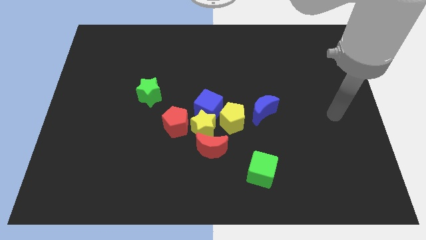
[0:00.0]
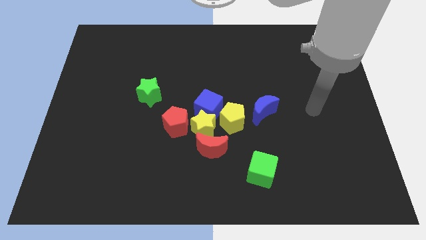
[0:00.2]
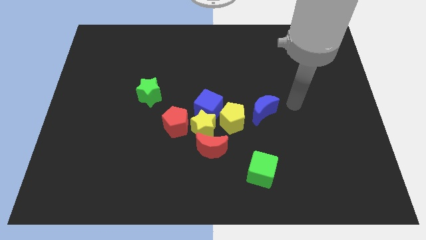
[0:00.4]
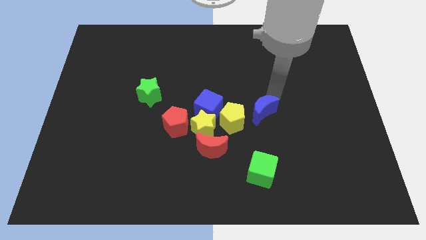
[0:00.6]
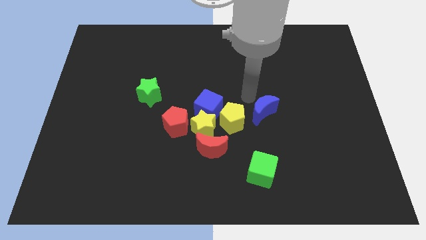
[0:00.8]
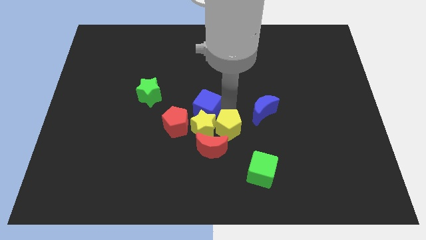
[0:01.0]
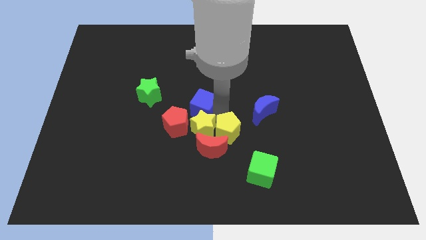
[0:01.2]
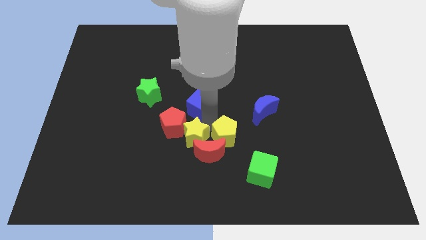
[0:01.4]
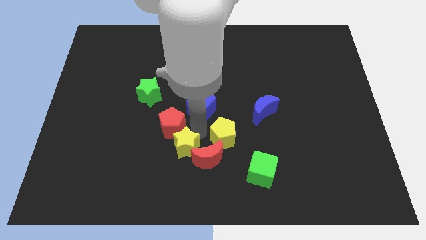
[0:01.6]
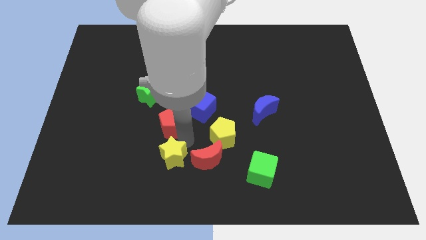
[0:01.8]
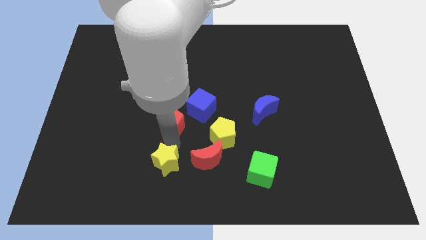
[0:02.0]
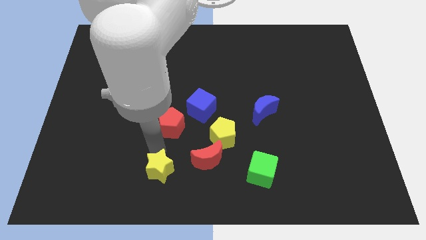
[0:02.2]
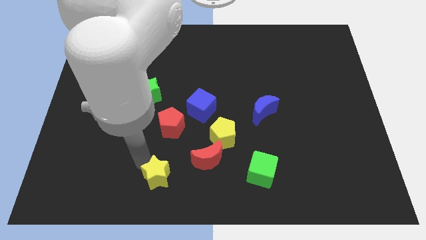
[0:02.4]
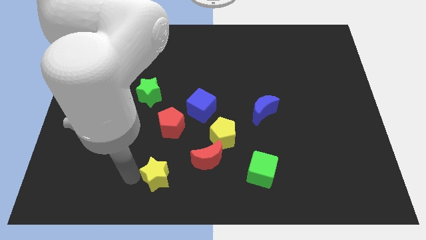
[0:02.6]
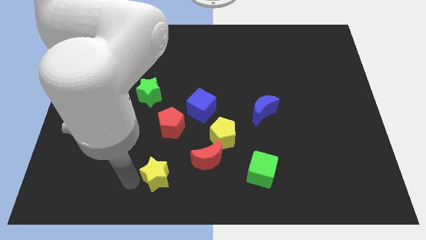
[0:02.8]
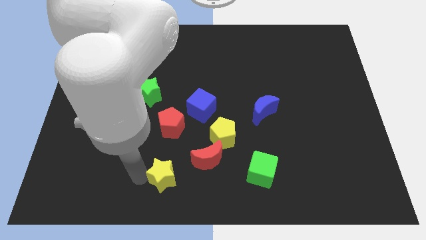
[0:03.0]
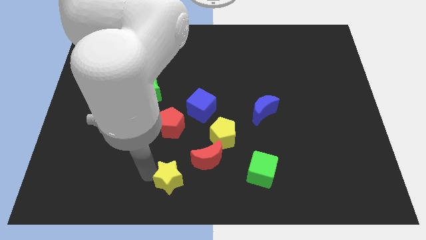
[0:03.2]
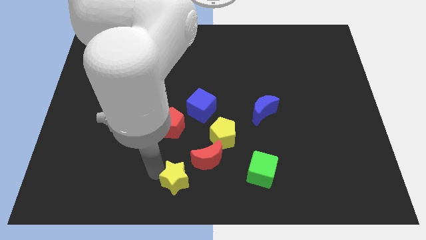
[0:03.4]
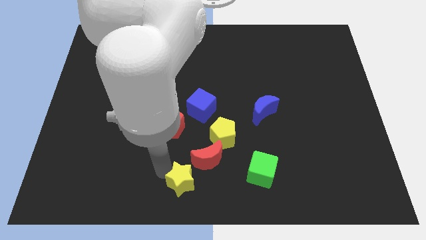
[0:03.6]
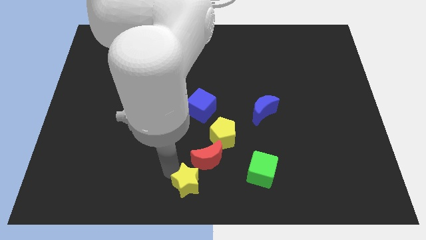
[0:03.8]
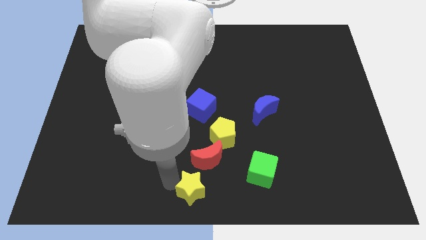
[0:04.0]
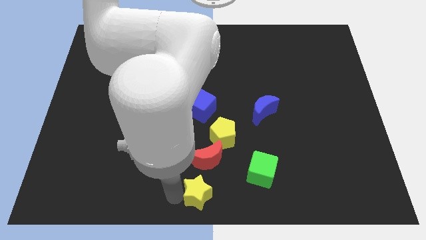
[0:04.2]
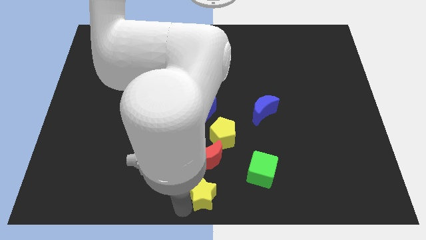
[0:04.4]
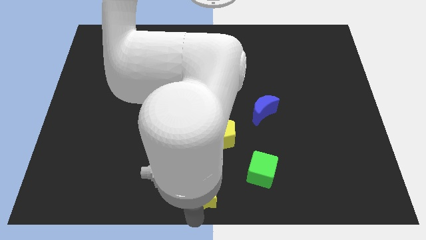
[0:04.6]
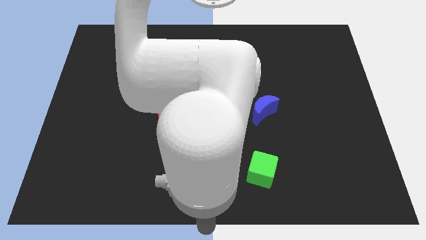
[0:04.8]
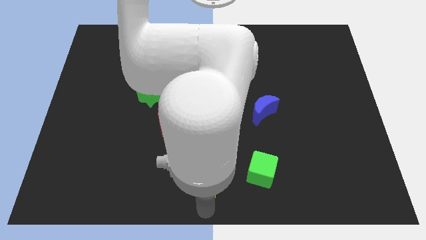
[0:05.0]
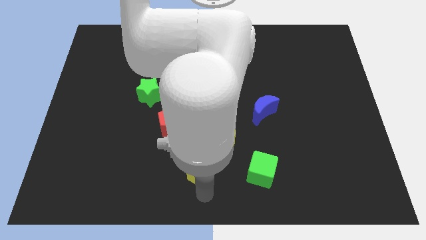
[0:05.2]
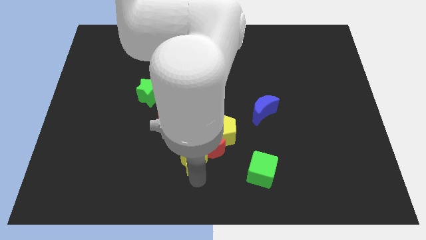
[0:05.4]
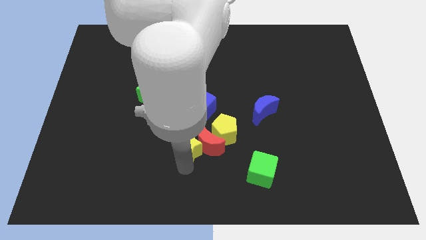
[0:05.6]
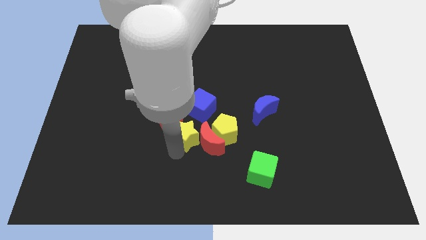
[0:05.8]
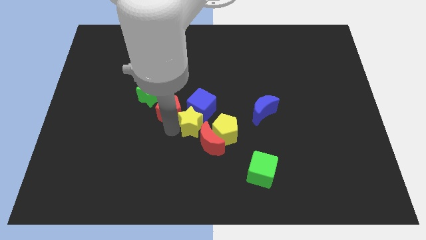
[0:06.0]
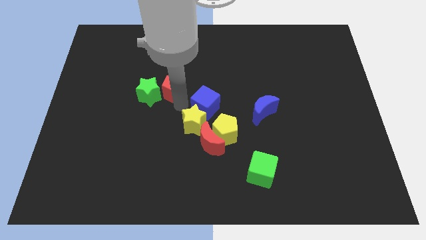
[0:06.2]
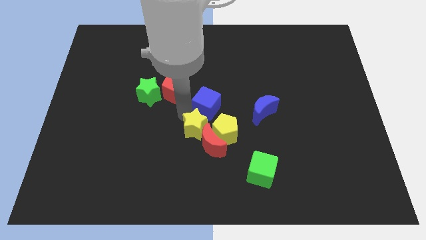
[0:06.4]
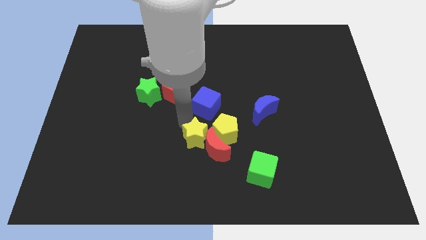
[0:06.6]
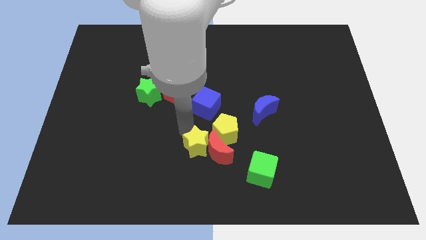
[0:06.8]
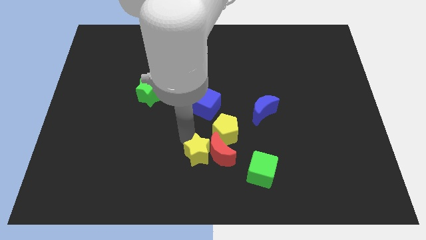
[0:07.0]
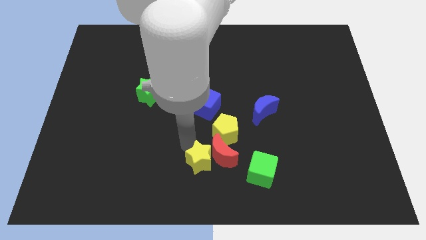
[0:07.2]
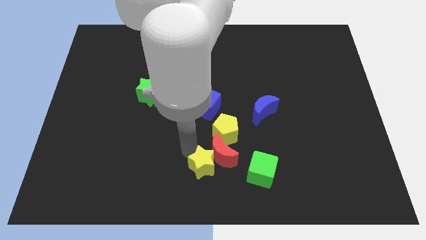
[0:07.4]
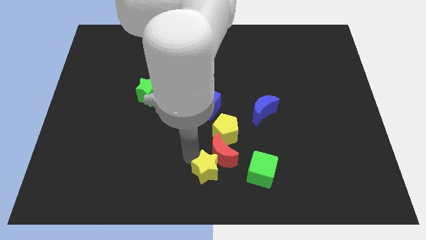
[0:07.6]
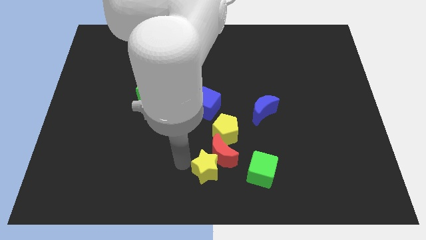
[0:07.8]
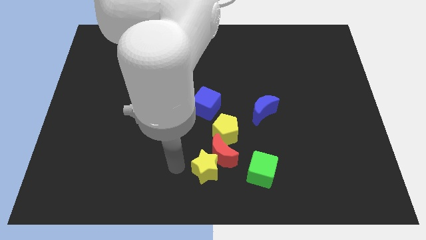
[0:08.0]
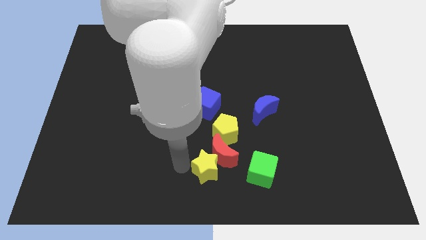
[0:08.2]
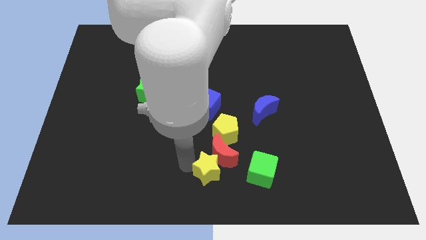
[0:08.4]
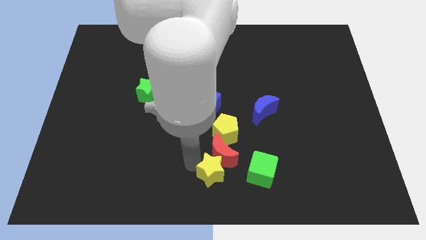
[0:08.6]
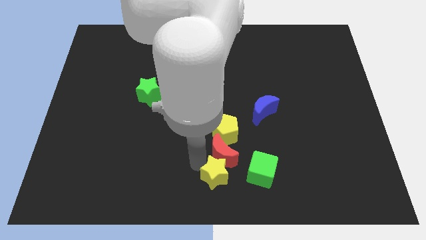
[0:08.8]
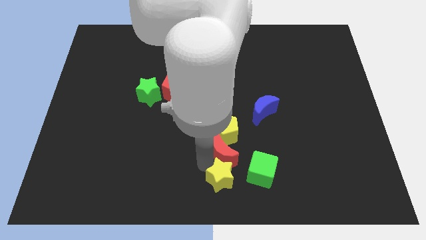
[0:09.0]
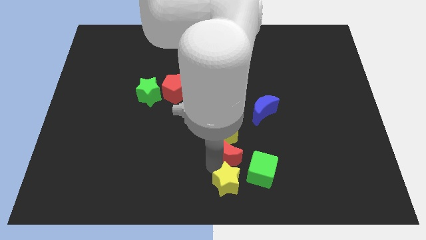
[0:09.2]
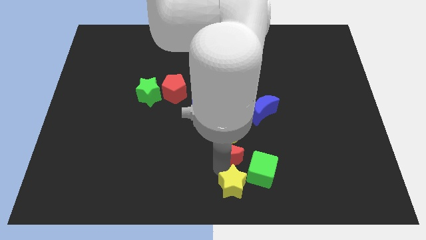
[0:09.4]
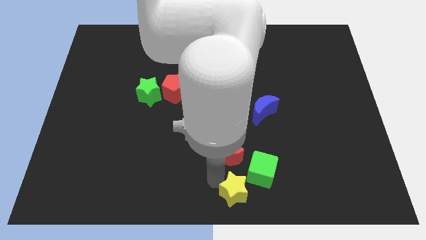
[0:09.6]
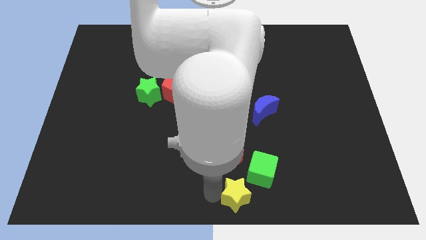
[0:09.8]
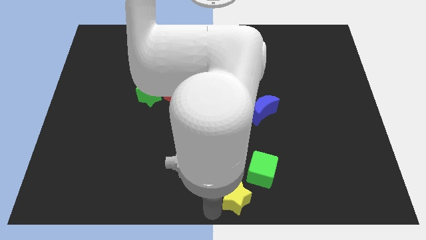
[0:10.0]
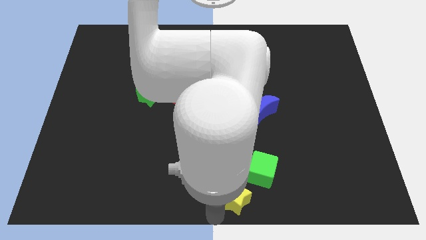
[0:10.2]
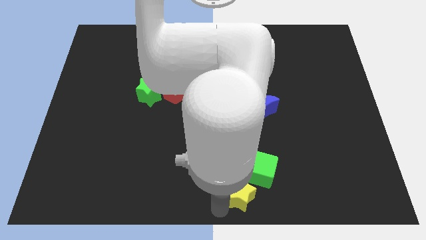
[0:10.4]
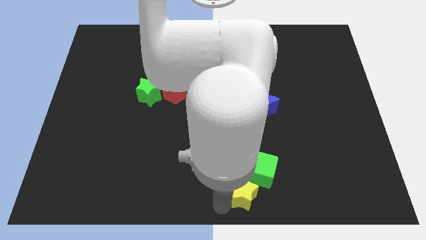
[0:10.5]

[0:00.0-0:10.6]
slide the yellow star close to the green cube

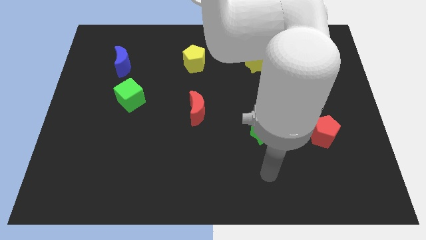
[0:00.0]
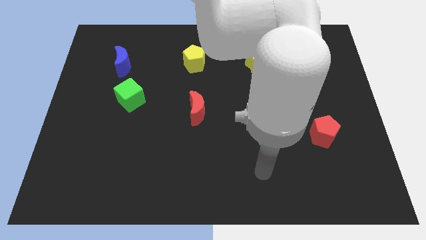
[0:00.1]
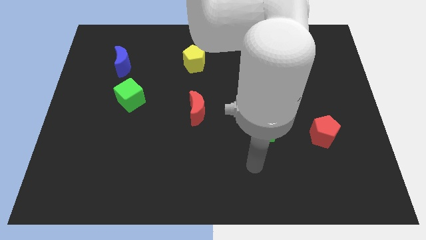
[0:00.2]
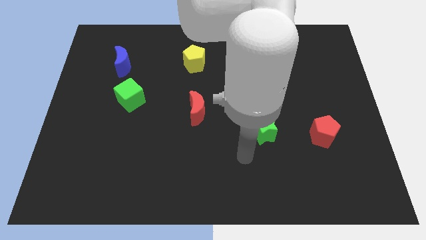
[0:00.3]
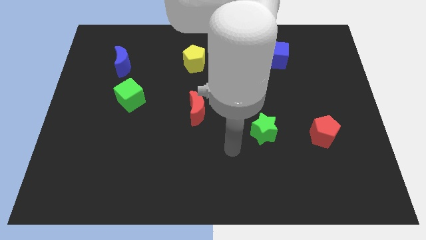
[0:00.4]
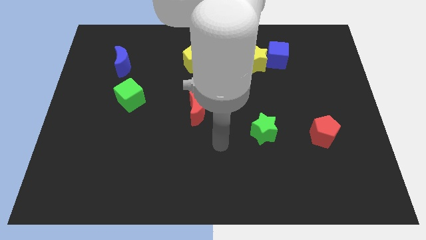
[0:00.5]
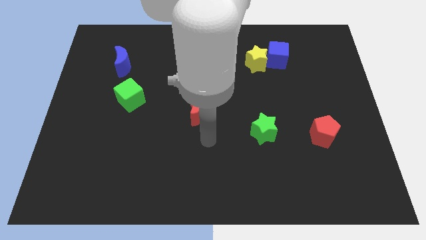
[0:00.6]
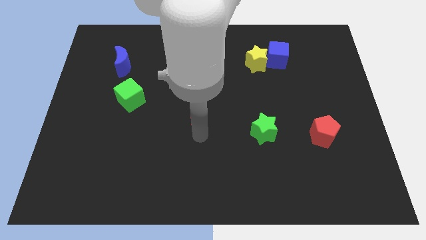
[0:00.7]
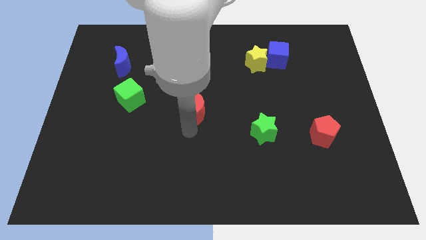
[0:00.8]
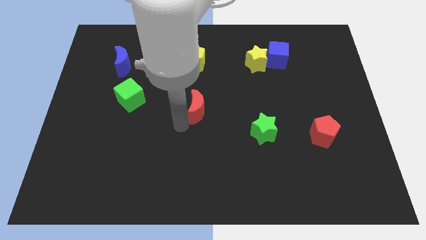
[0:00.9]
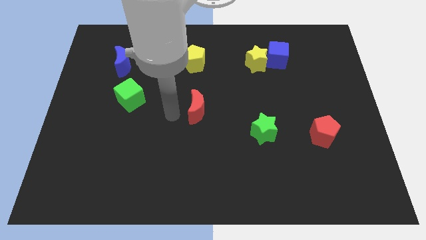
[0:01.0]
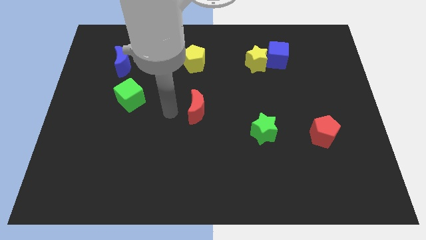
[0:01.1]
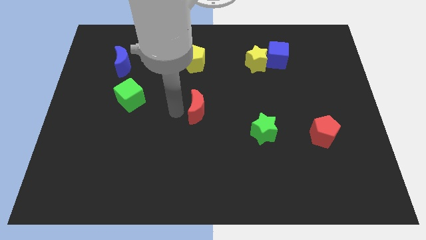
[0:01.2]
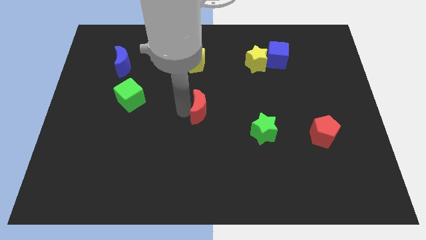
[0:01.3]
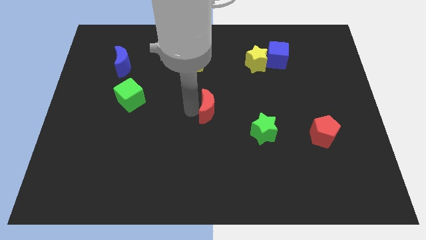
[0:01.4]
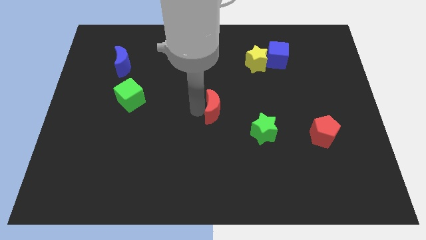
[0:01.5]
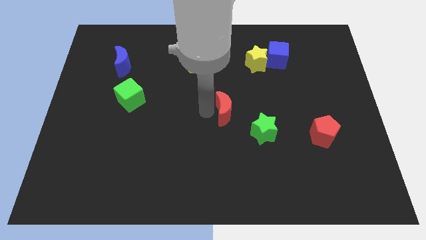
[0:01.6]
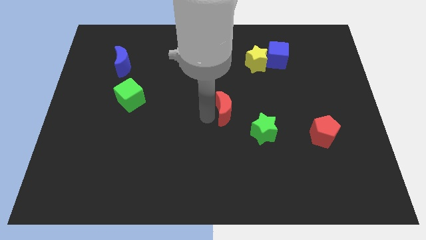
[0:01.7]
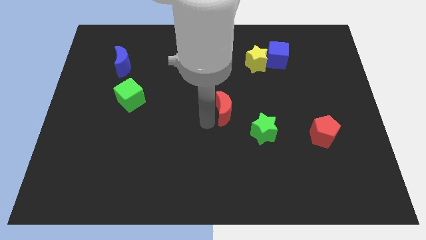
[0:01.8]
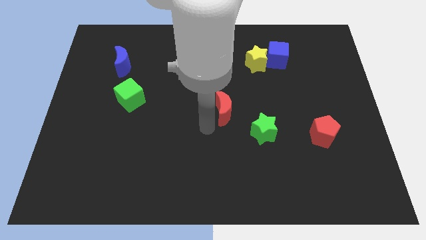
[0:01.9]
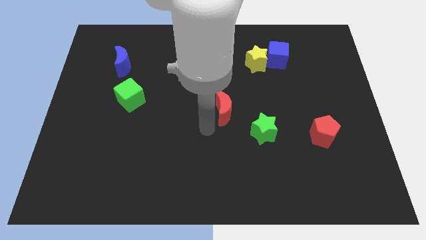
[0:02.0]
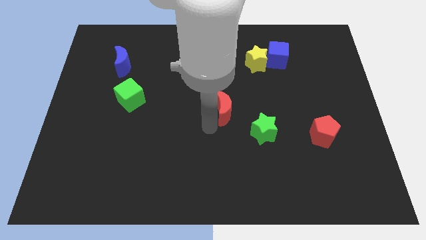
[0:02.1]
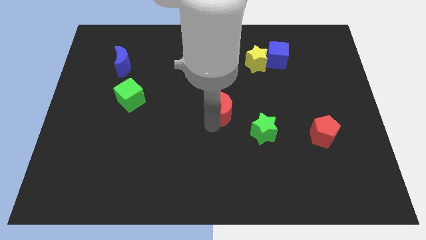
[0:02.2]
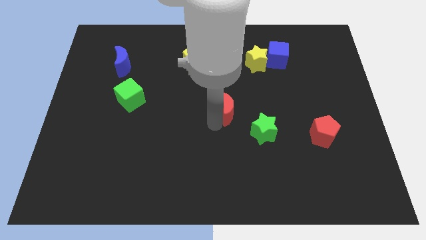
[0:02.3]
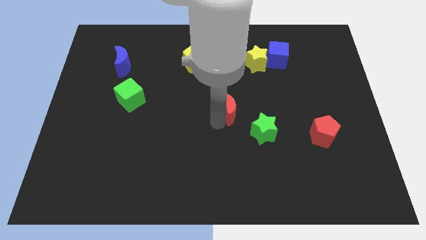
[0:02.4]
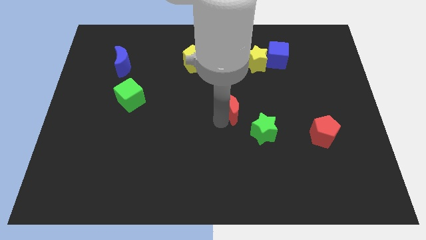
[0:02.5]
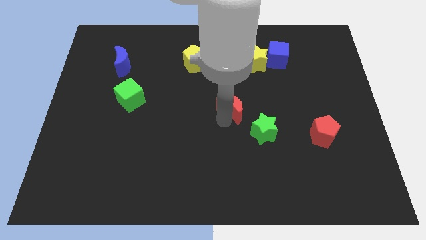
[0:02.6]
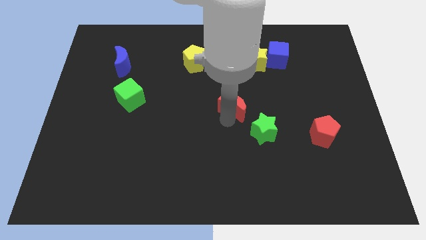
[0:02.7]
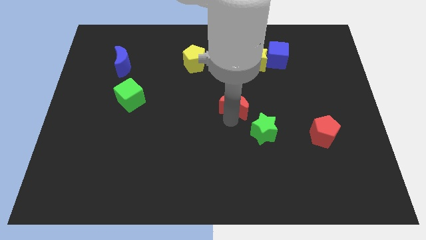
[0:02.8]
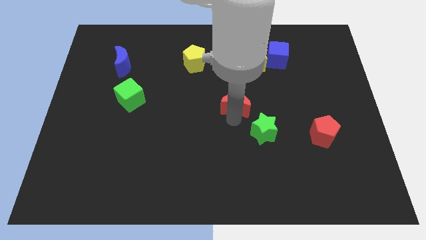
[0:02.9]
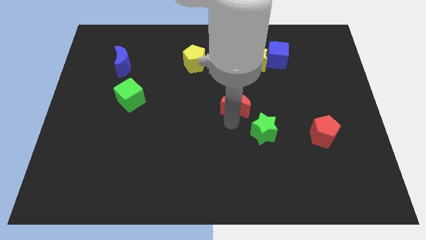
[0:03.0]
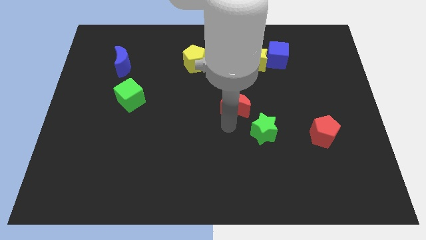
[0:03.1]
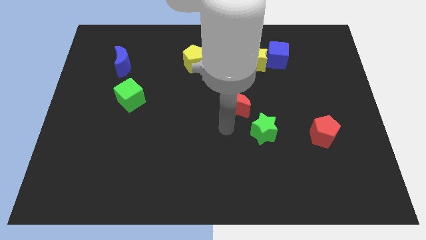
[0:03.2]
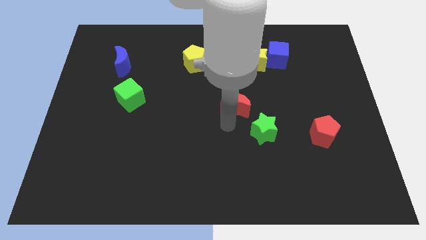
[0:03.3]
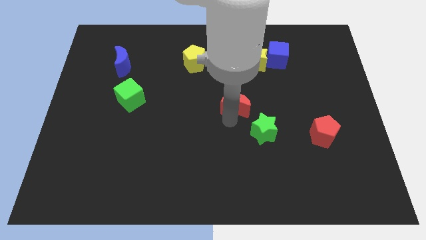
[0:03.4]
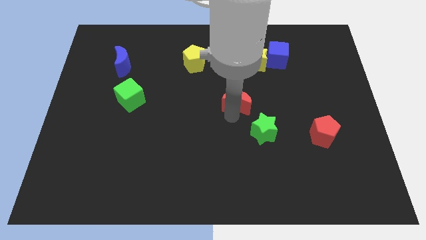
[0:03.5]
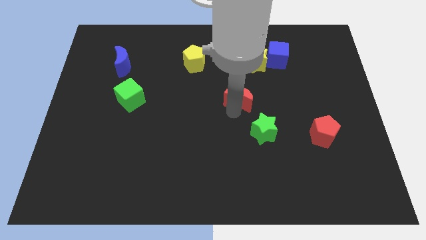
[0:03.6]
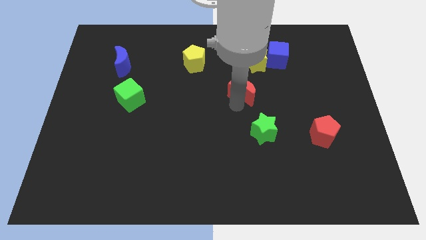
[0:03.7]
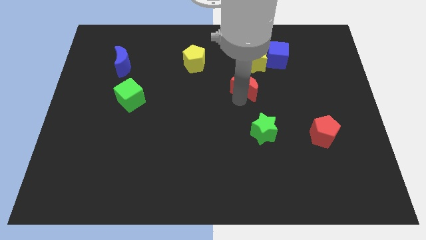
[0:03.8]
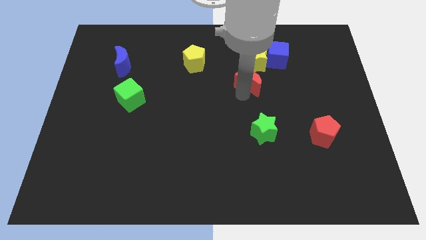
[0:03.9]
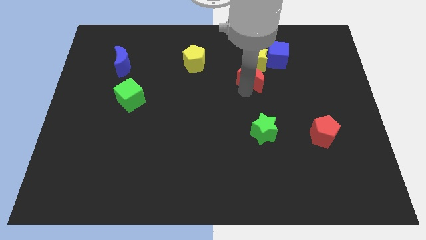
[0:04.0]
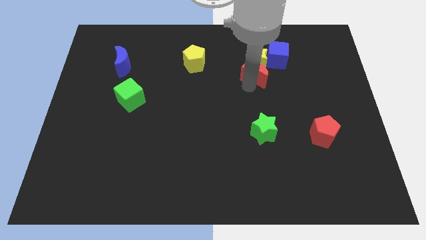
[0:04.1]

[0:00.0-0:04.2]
push the red moon next to the yellow star
